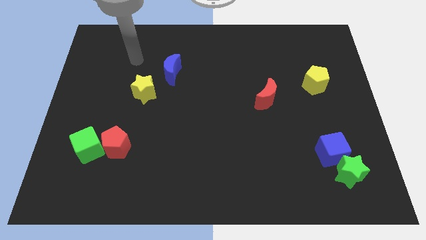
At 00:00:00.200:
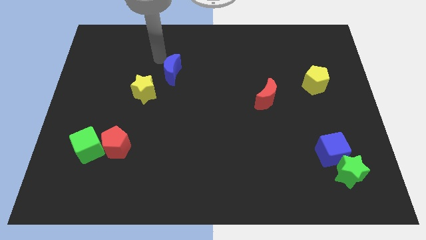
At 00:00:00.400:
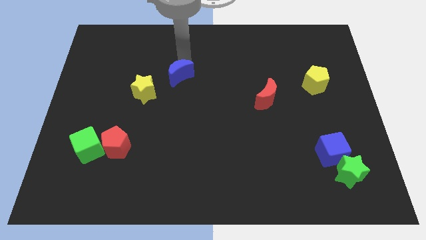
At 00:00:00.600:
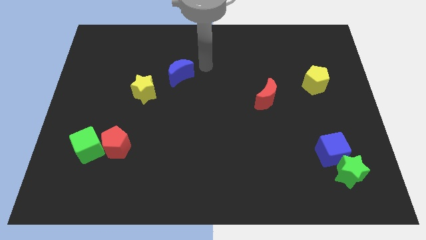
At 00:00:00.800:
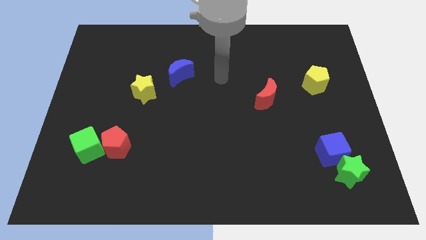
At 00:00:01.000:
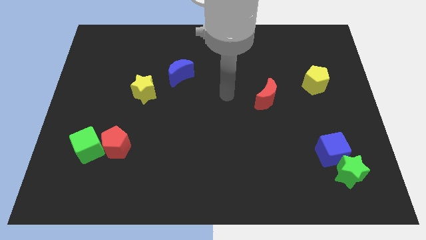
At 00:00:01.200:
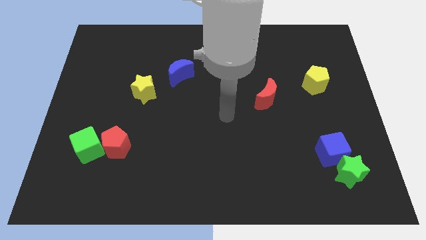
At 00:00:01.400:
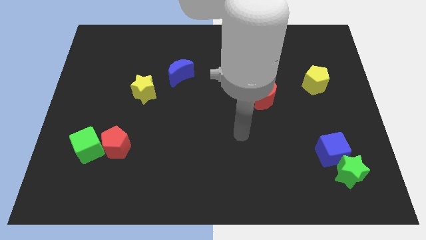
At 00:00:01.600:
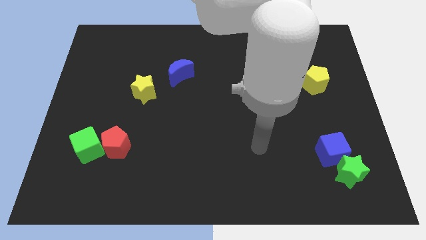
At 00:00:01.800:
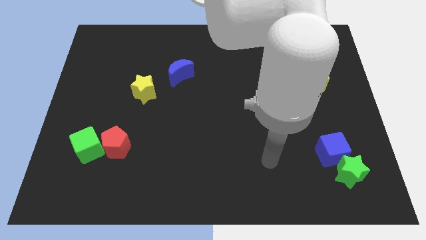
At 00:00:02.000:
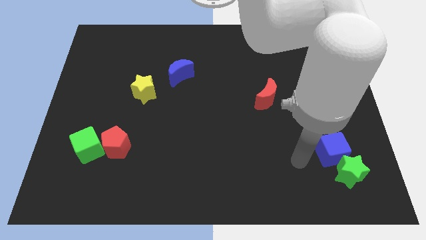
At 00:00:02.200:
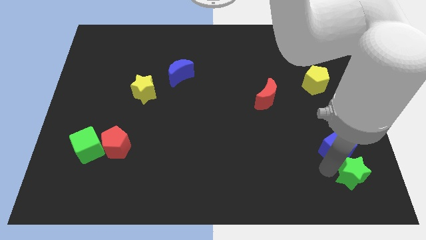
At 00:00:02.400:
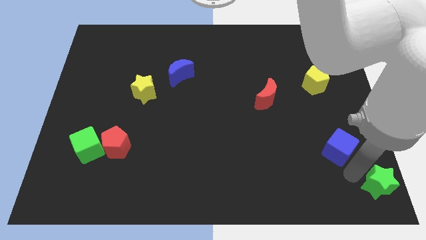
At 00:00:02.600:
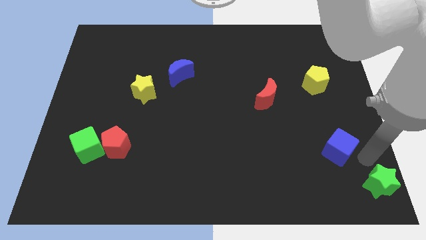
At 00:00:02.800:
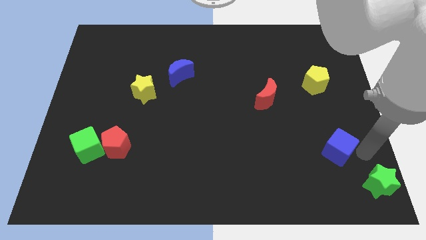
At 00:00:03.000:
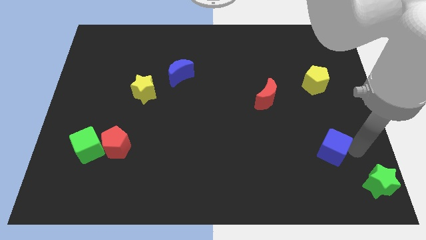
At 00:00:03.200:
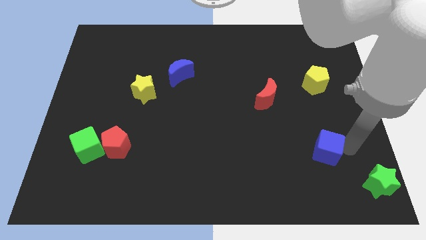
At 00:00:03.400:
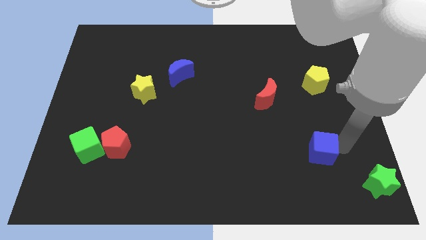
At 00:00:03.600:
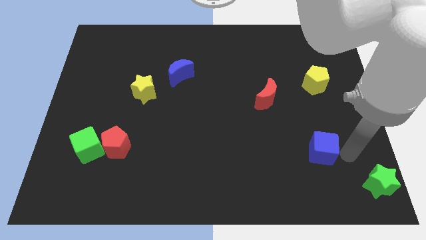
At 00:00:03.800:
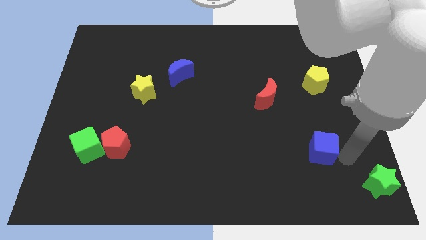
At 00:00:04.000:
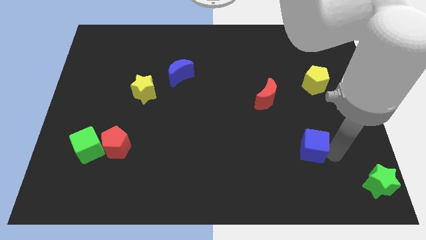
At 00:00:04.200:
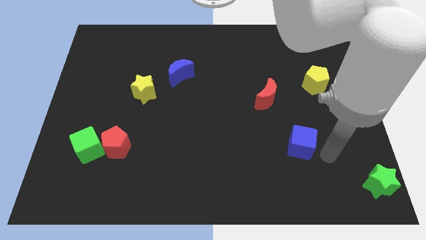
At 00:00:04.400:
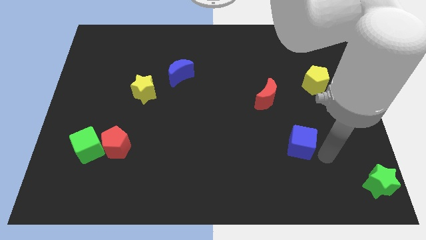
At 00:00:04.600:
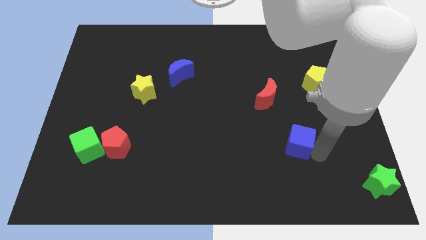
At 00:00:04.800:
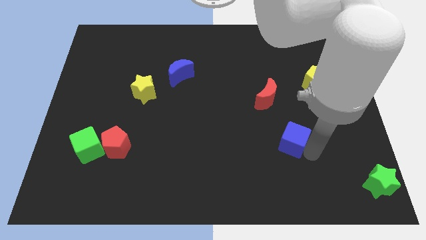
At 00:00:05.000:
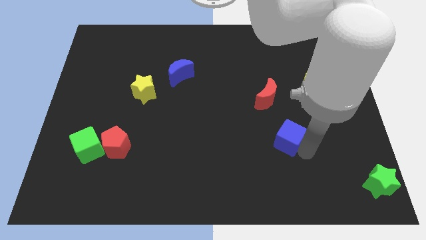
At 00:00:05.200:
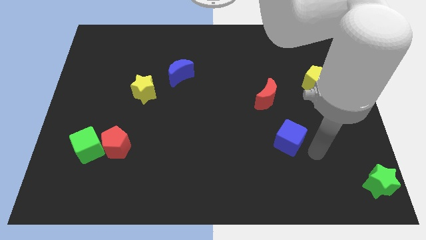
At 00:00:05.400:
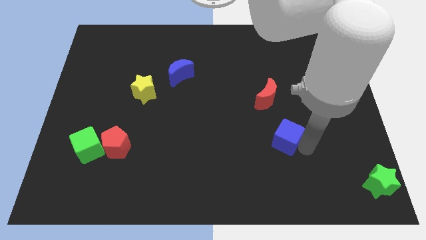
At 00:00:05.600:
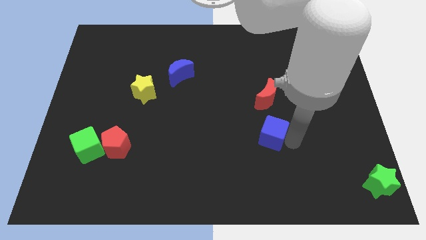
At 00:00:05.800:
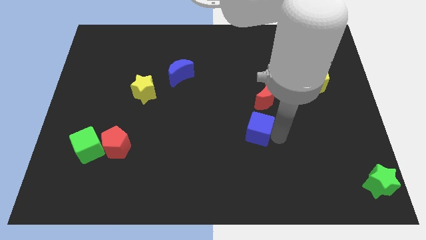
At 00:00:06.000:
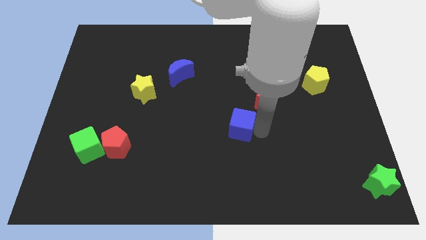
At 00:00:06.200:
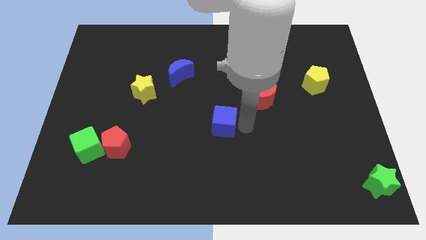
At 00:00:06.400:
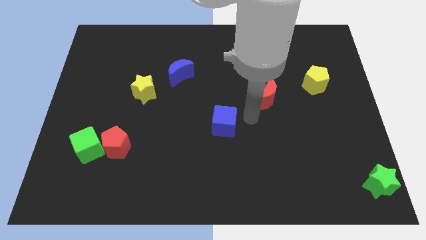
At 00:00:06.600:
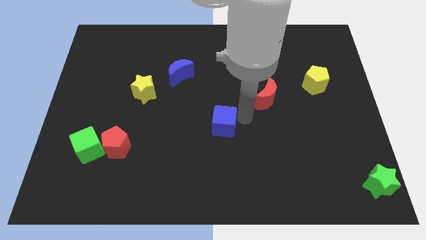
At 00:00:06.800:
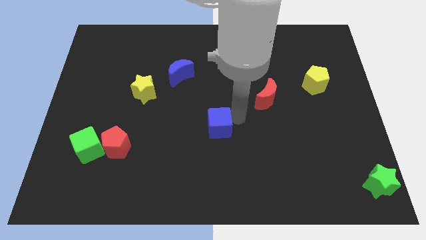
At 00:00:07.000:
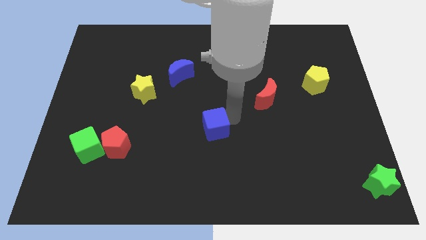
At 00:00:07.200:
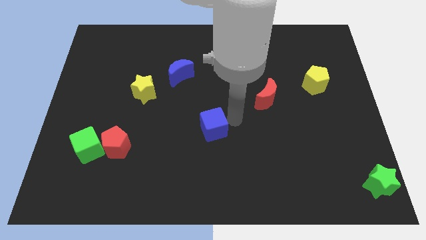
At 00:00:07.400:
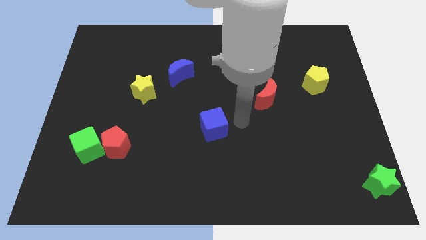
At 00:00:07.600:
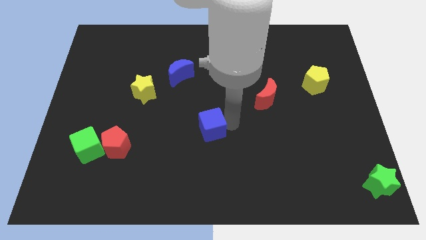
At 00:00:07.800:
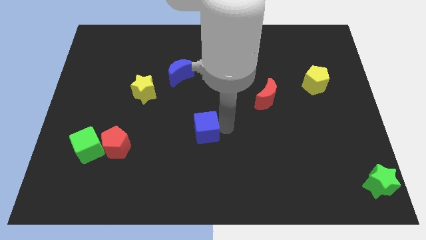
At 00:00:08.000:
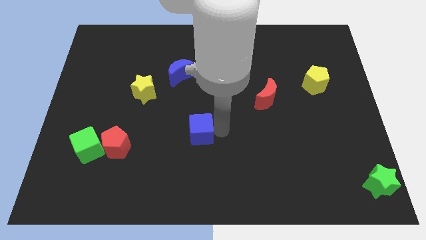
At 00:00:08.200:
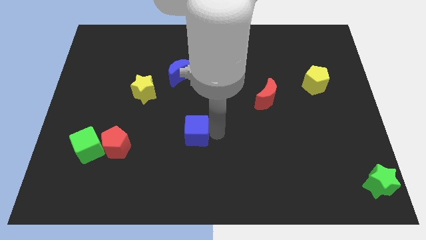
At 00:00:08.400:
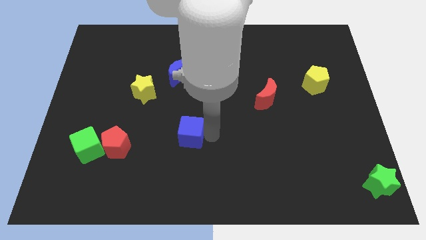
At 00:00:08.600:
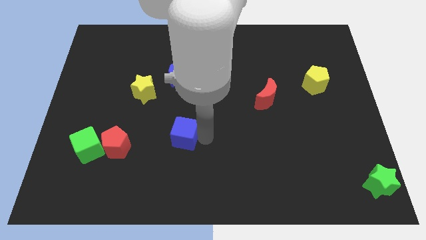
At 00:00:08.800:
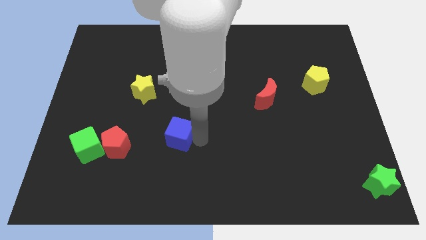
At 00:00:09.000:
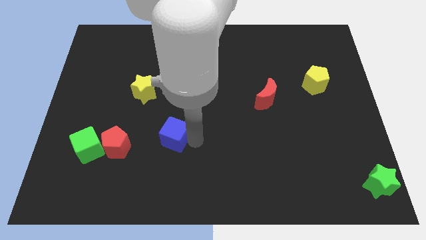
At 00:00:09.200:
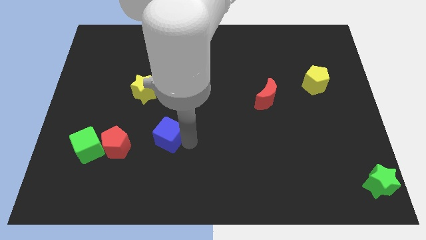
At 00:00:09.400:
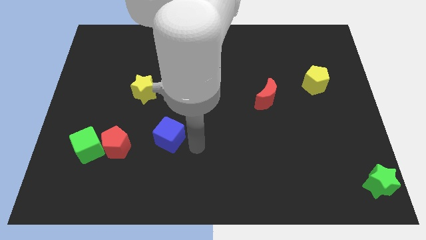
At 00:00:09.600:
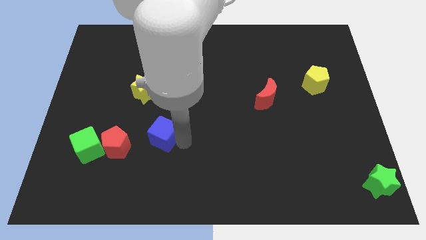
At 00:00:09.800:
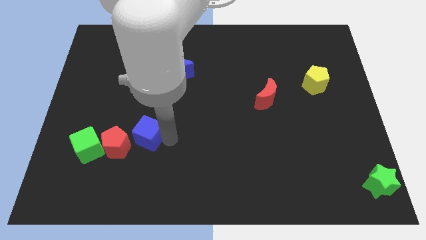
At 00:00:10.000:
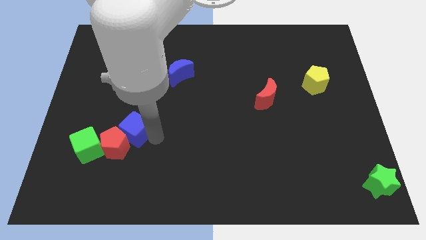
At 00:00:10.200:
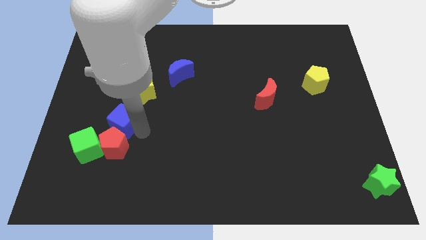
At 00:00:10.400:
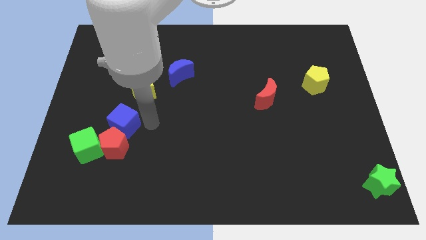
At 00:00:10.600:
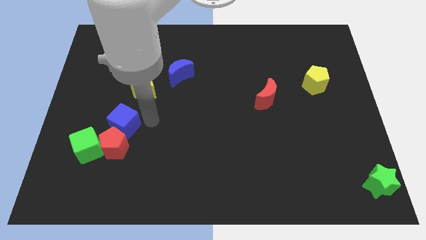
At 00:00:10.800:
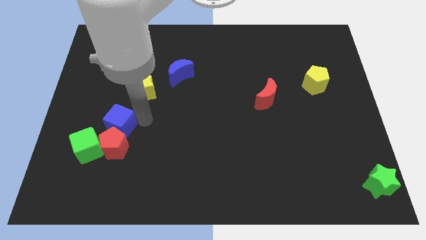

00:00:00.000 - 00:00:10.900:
move the blue cube diagonally up and to the left of the red pentagon

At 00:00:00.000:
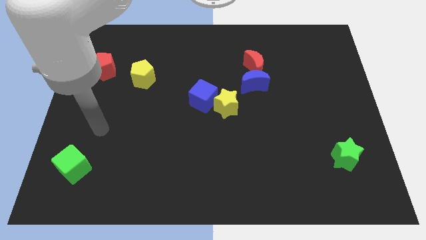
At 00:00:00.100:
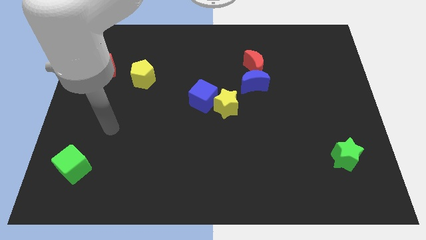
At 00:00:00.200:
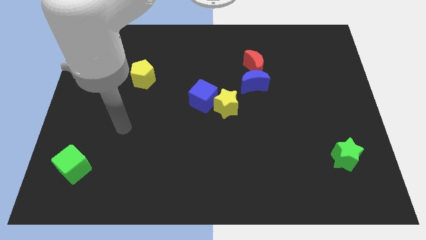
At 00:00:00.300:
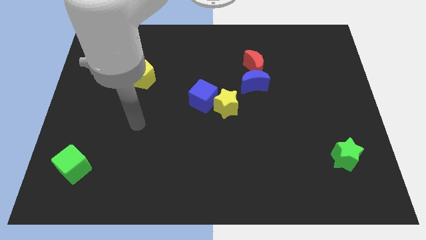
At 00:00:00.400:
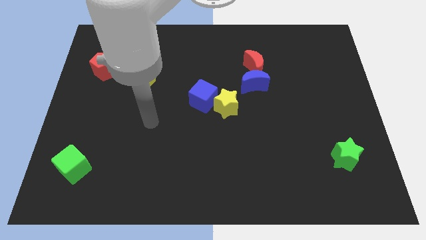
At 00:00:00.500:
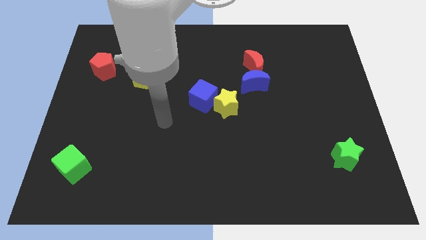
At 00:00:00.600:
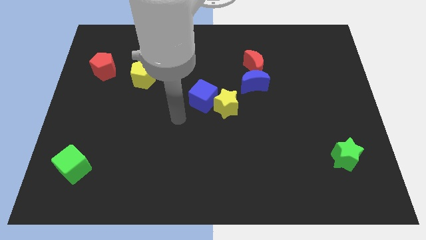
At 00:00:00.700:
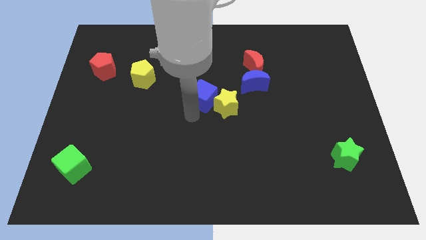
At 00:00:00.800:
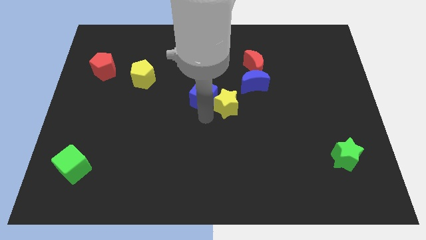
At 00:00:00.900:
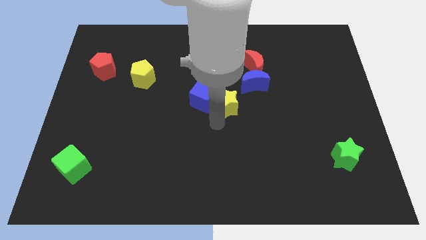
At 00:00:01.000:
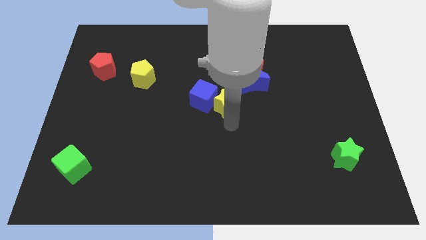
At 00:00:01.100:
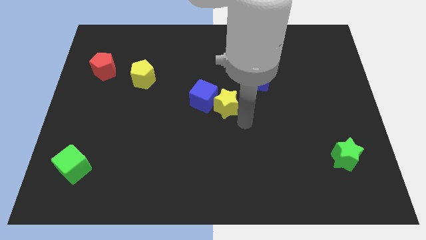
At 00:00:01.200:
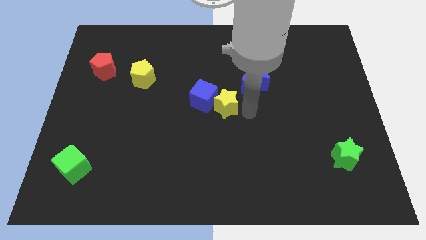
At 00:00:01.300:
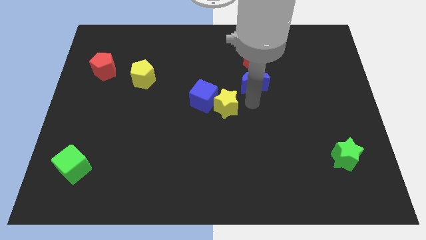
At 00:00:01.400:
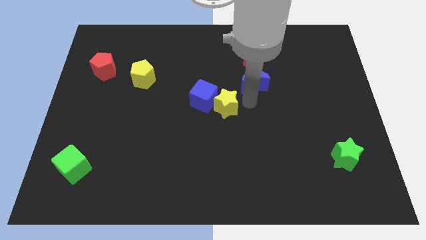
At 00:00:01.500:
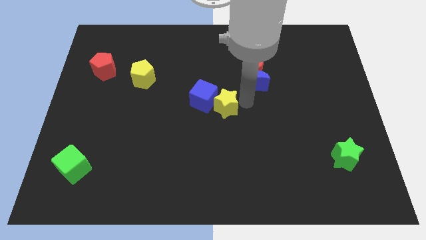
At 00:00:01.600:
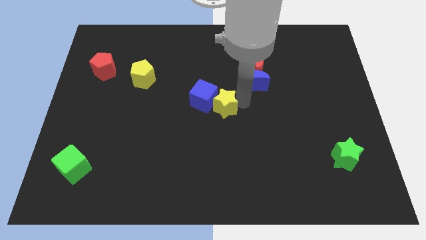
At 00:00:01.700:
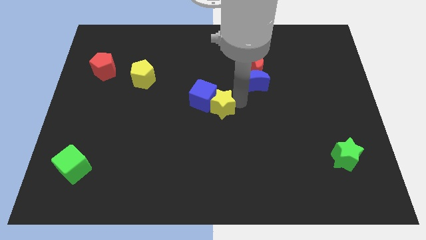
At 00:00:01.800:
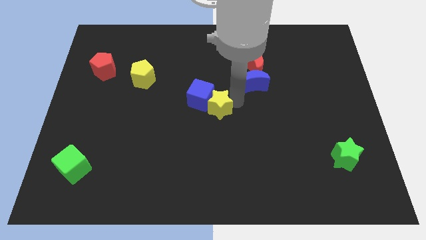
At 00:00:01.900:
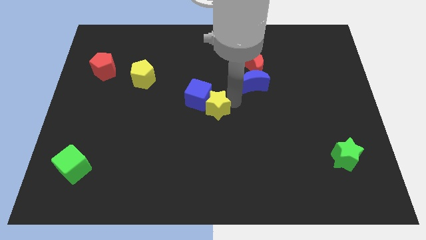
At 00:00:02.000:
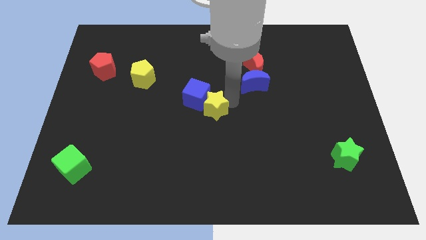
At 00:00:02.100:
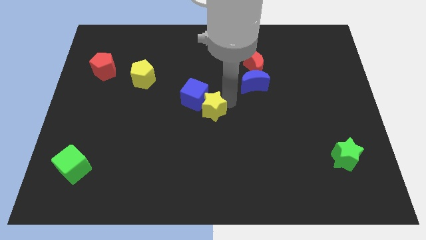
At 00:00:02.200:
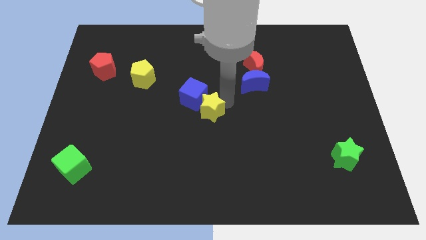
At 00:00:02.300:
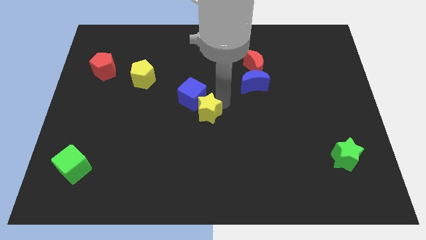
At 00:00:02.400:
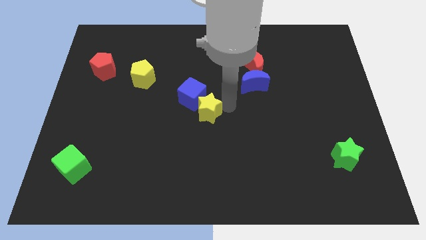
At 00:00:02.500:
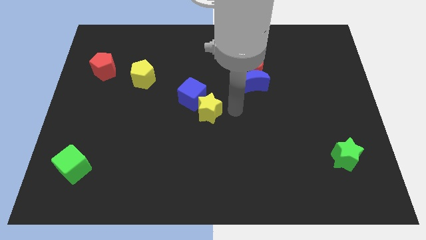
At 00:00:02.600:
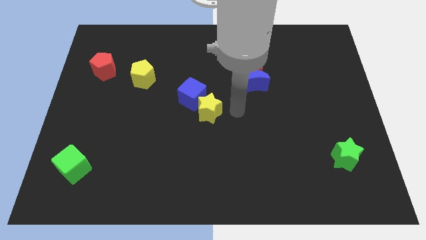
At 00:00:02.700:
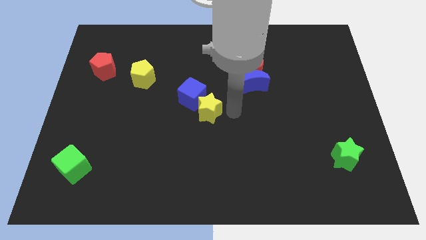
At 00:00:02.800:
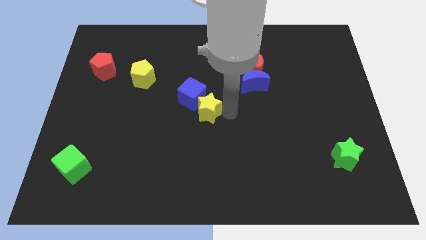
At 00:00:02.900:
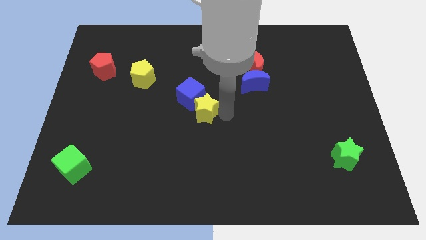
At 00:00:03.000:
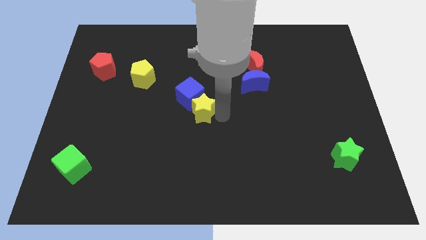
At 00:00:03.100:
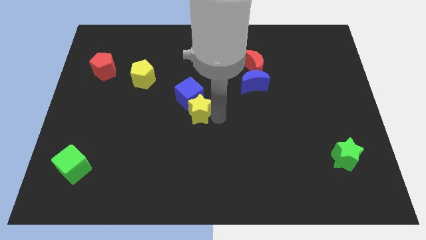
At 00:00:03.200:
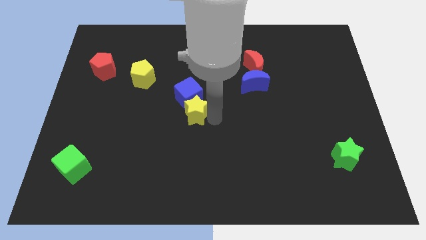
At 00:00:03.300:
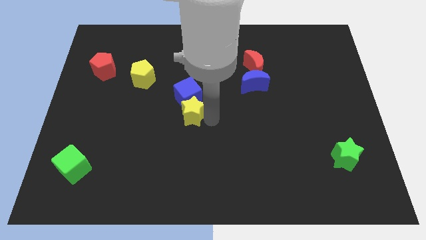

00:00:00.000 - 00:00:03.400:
move the yellow star diagonally down and to the left of the blue cube
